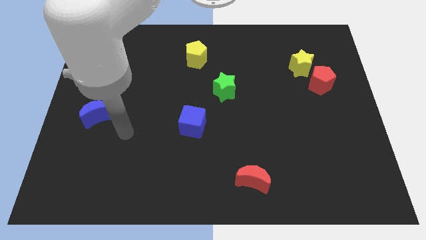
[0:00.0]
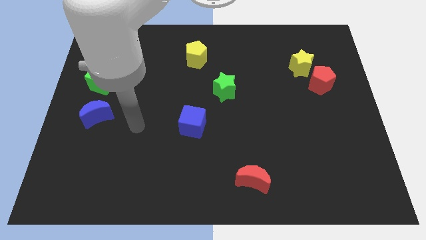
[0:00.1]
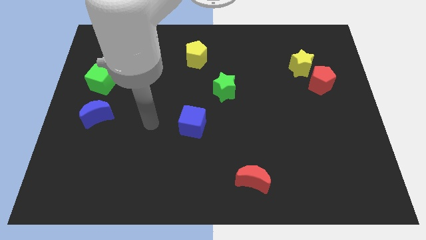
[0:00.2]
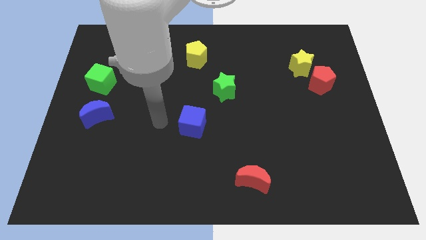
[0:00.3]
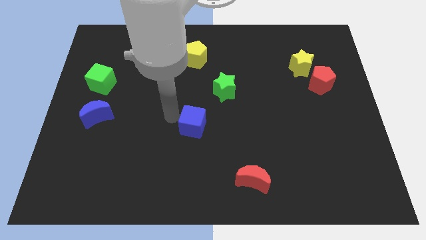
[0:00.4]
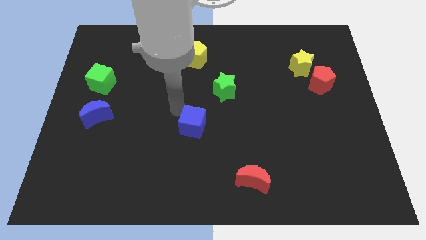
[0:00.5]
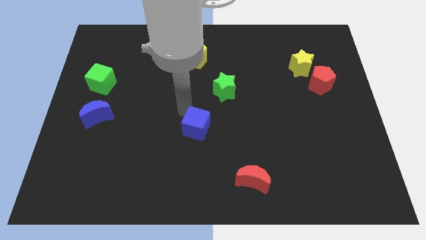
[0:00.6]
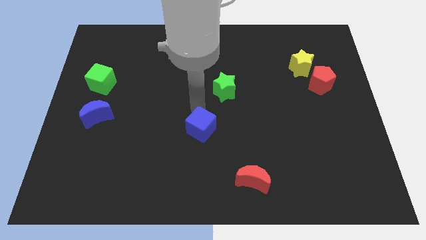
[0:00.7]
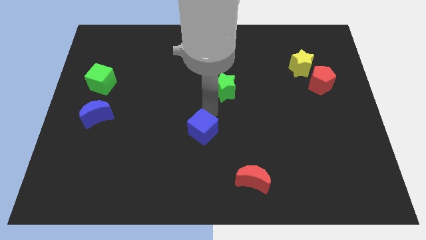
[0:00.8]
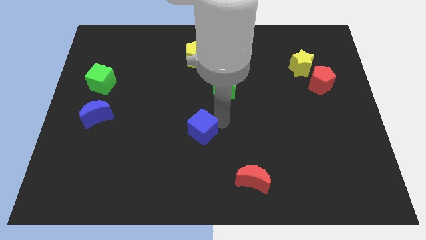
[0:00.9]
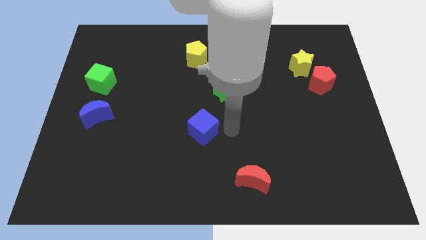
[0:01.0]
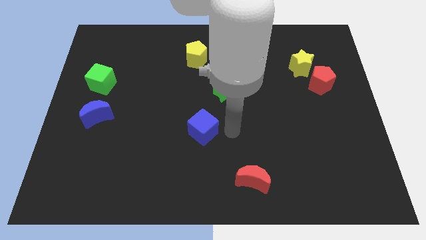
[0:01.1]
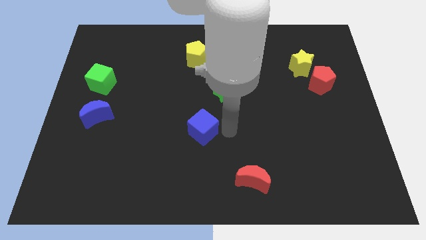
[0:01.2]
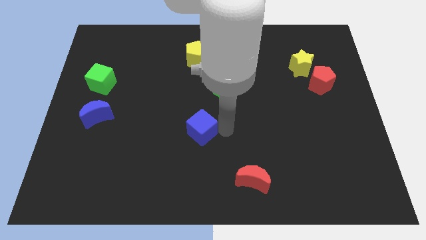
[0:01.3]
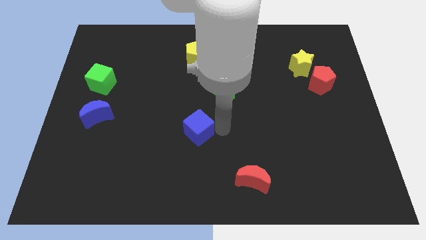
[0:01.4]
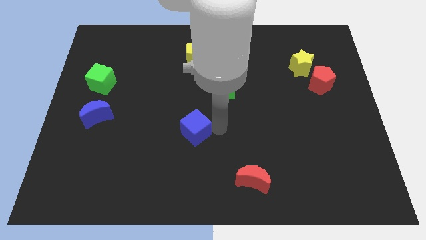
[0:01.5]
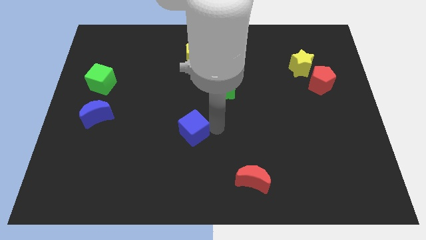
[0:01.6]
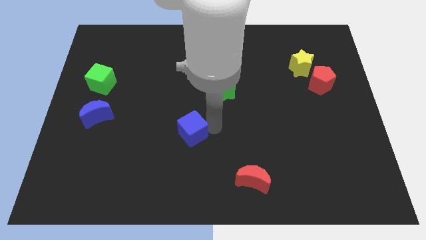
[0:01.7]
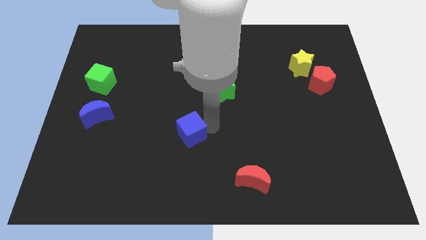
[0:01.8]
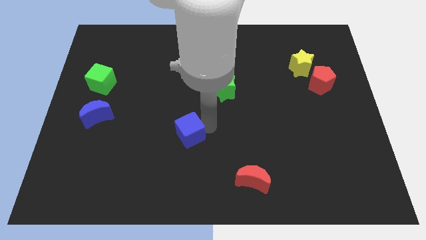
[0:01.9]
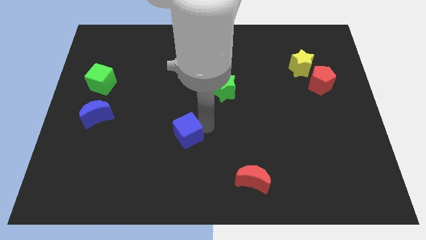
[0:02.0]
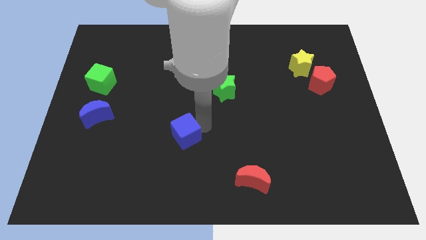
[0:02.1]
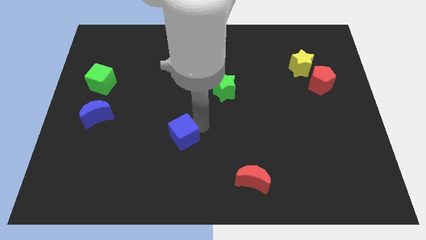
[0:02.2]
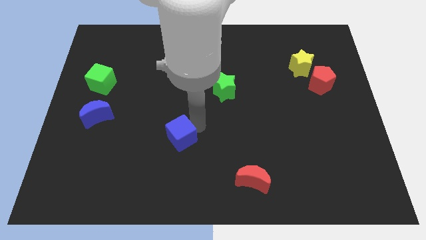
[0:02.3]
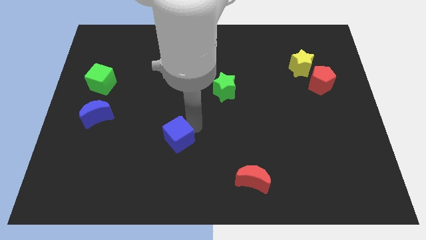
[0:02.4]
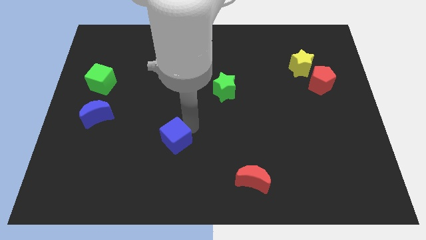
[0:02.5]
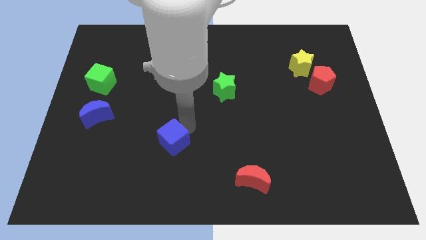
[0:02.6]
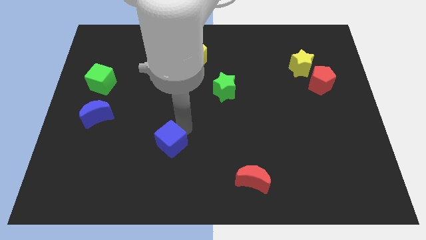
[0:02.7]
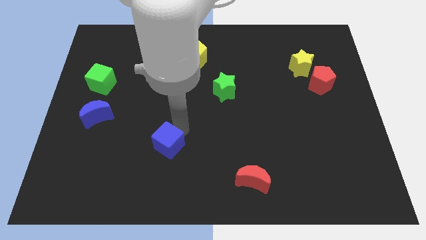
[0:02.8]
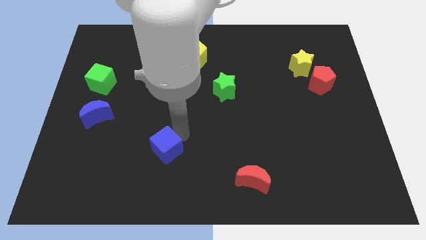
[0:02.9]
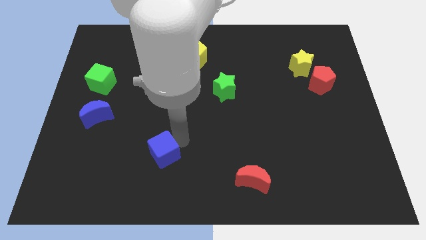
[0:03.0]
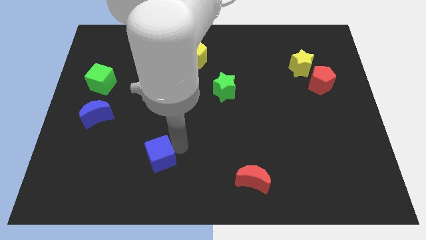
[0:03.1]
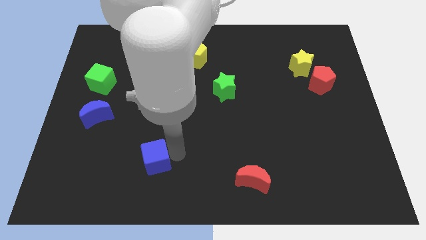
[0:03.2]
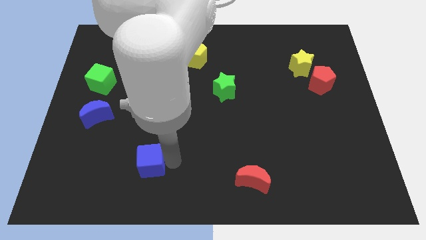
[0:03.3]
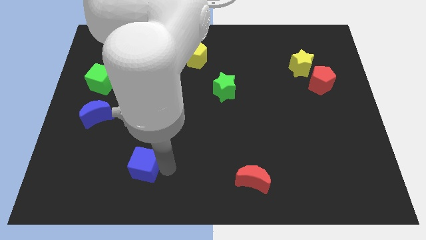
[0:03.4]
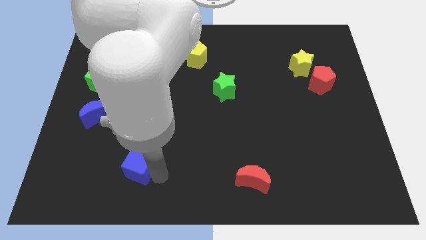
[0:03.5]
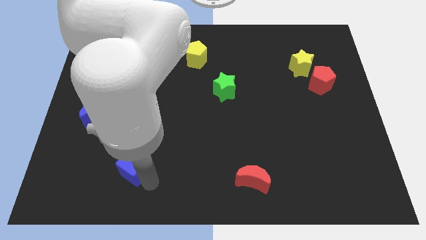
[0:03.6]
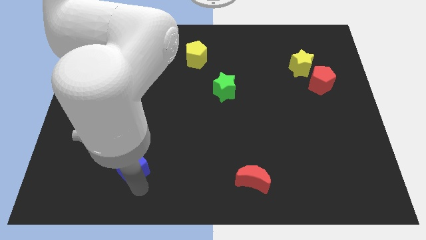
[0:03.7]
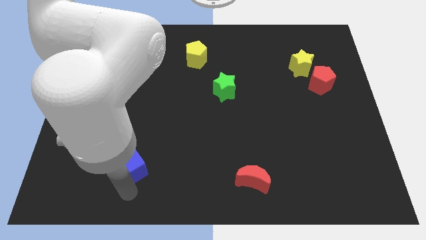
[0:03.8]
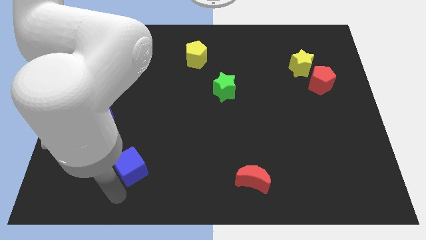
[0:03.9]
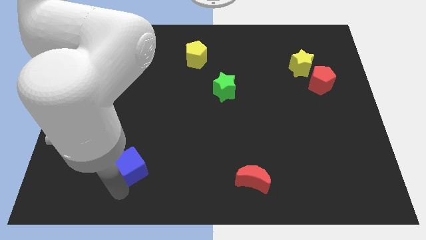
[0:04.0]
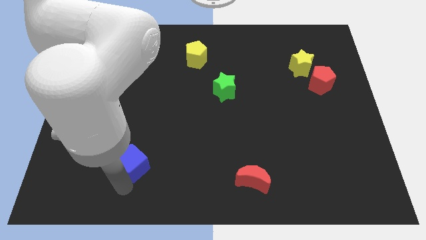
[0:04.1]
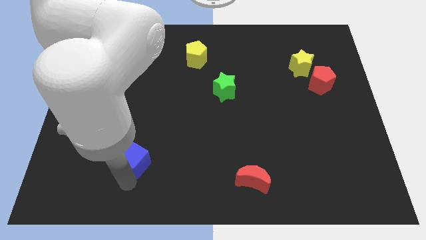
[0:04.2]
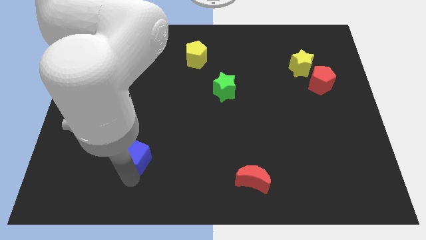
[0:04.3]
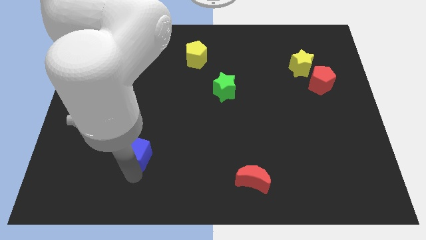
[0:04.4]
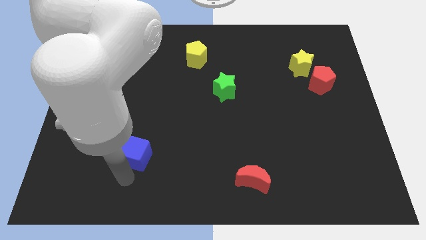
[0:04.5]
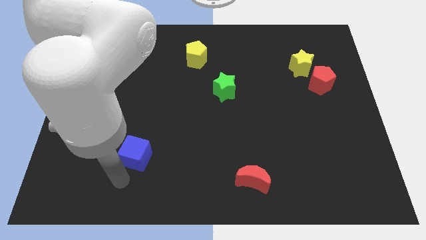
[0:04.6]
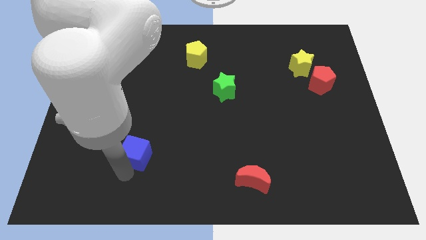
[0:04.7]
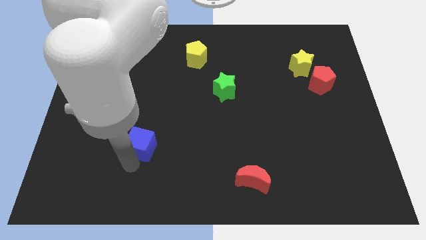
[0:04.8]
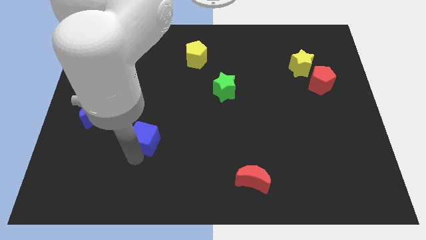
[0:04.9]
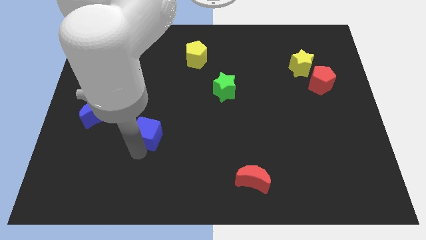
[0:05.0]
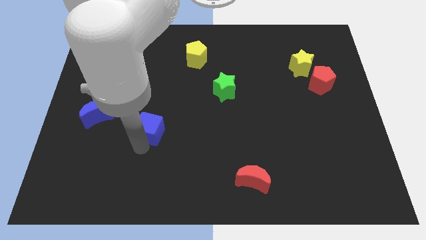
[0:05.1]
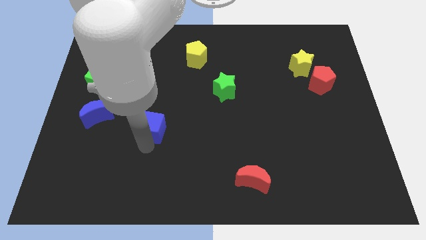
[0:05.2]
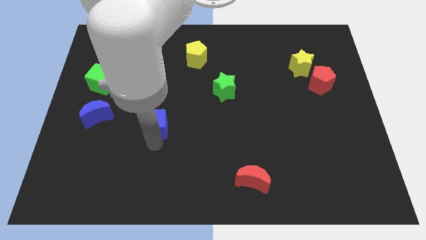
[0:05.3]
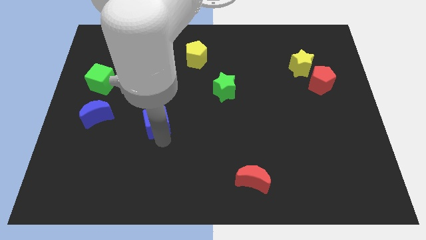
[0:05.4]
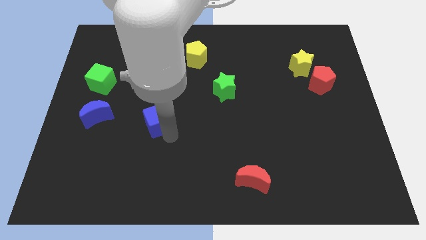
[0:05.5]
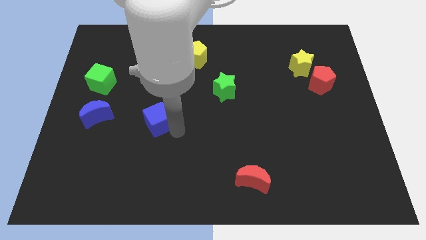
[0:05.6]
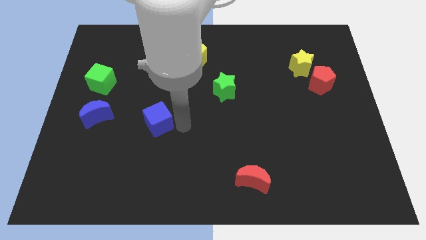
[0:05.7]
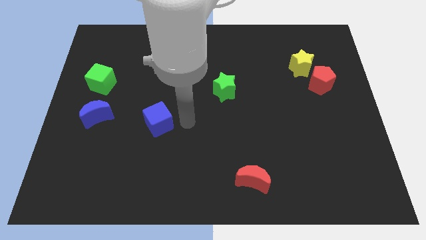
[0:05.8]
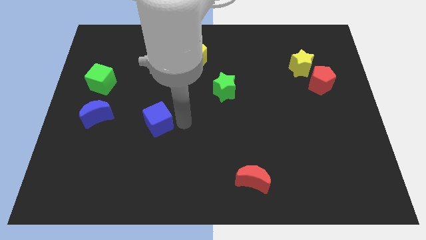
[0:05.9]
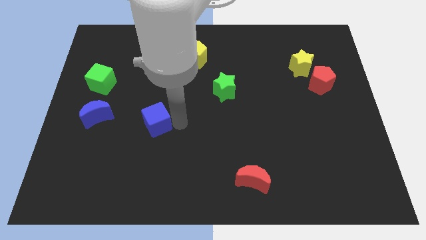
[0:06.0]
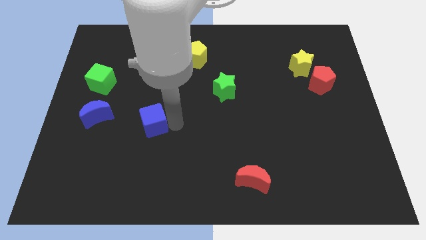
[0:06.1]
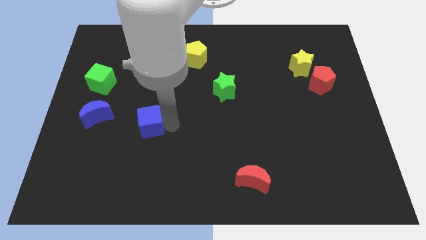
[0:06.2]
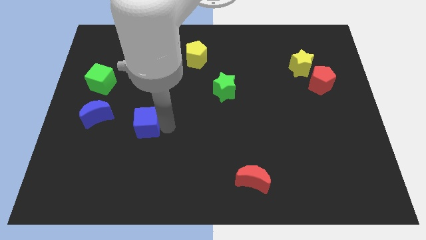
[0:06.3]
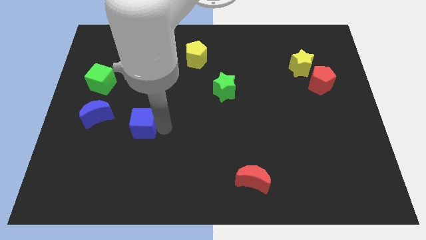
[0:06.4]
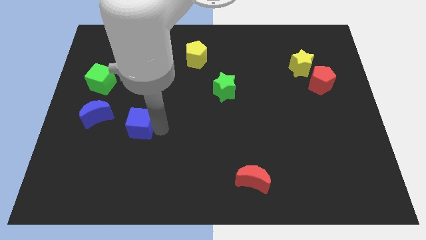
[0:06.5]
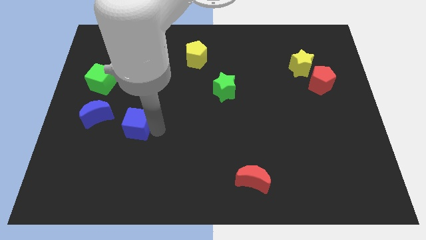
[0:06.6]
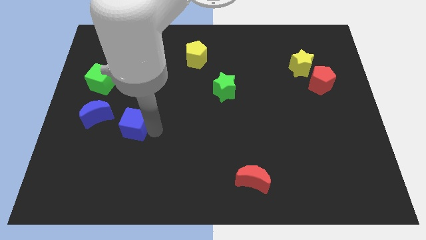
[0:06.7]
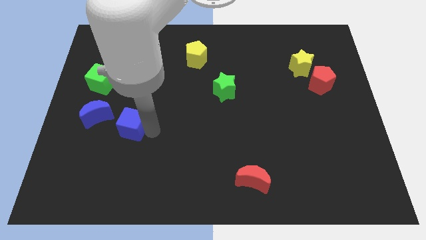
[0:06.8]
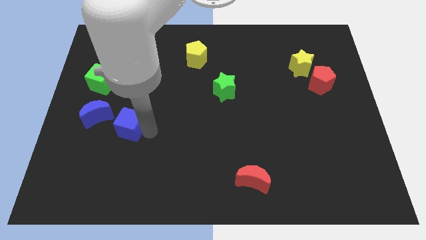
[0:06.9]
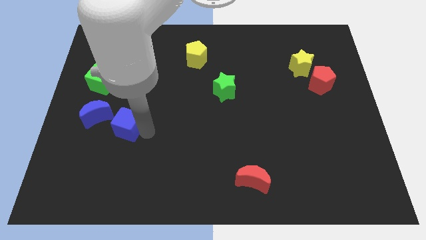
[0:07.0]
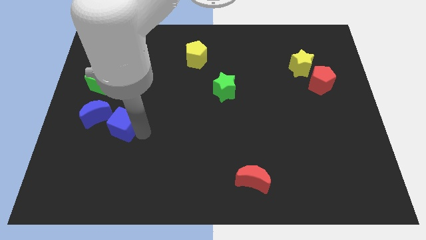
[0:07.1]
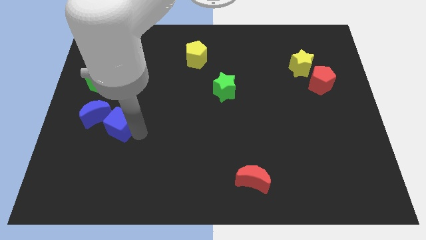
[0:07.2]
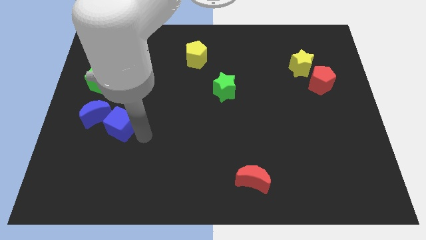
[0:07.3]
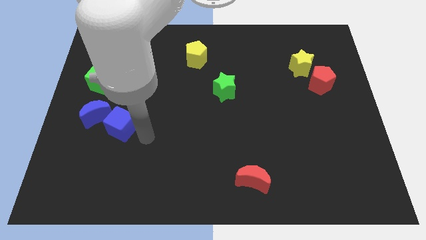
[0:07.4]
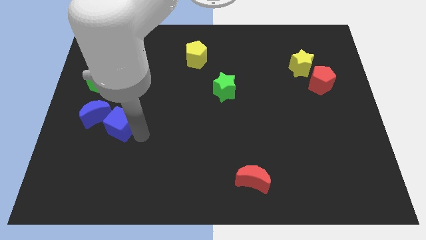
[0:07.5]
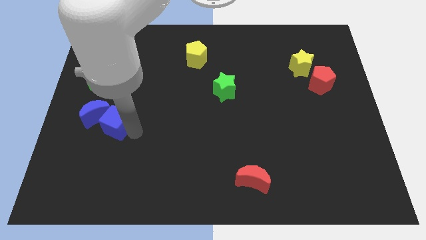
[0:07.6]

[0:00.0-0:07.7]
push the blue cube close to the blue moon

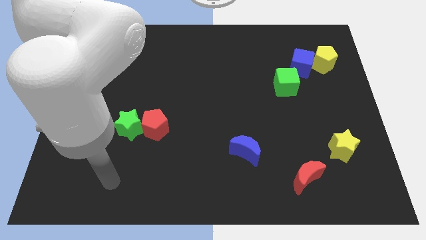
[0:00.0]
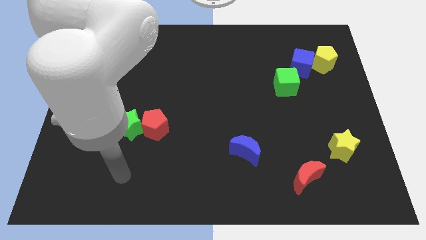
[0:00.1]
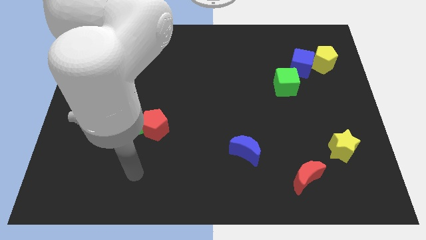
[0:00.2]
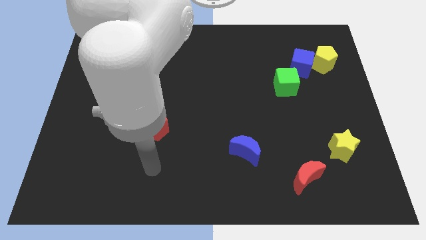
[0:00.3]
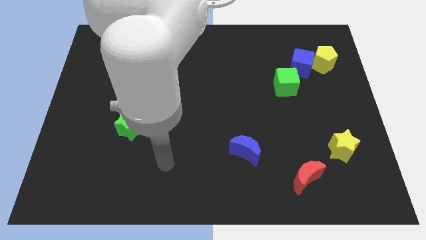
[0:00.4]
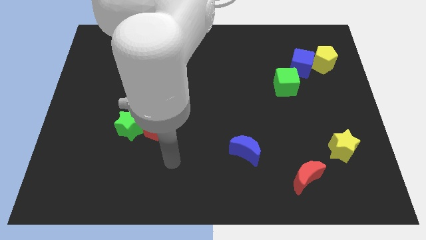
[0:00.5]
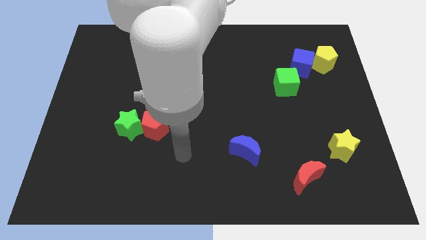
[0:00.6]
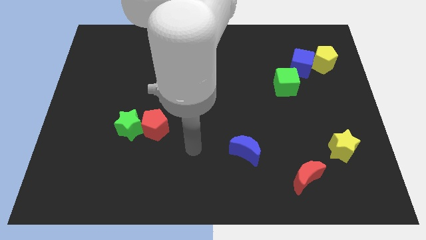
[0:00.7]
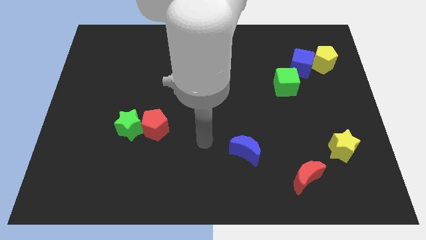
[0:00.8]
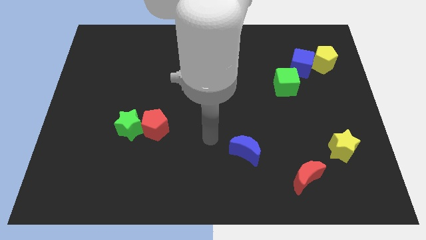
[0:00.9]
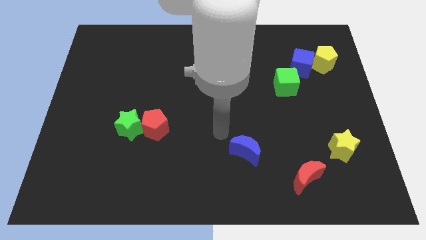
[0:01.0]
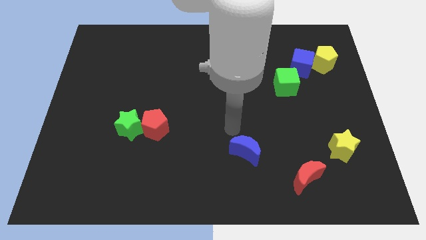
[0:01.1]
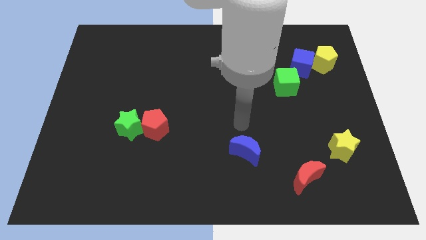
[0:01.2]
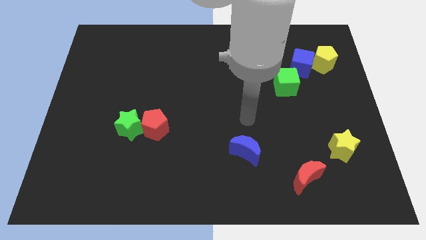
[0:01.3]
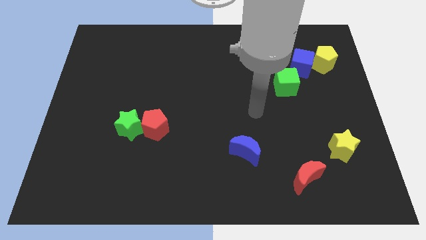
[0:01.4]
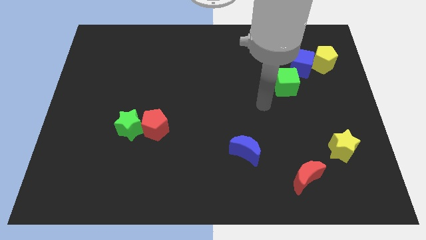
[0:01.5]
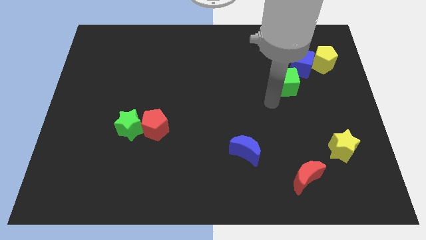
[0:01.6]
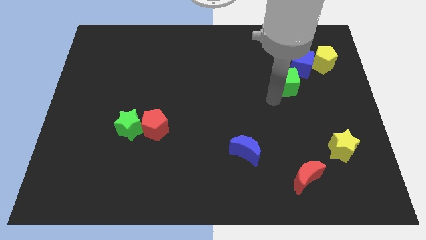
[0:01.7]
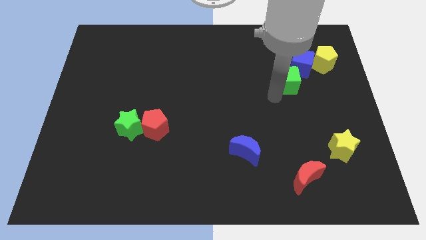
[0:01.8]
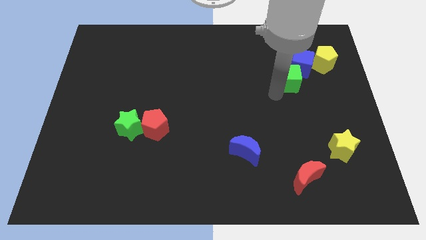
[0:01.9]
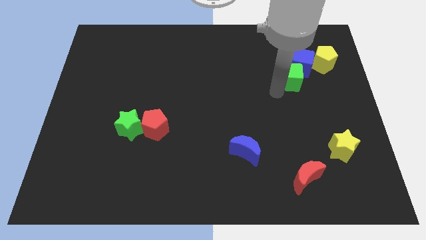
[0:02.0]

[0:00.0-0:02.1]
put the green cube to the blue cube
